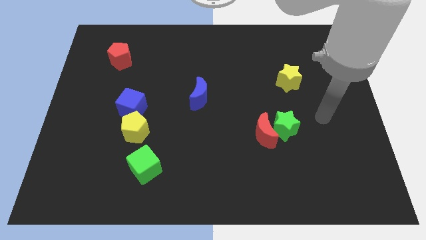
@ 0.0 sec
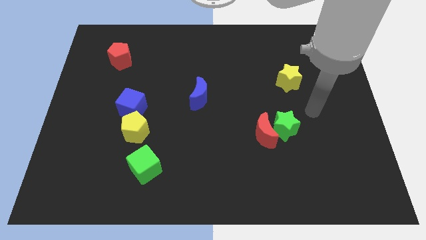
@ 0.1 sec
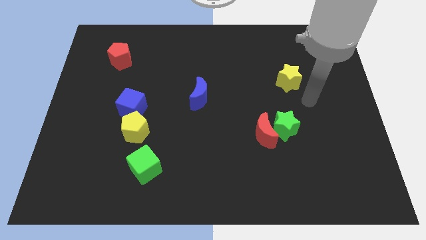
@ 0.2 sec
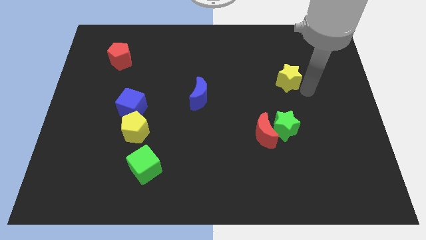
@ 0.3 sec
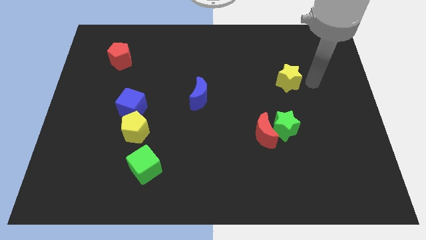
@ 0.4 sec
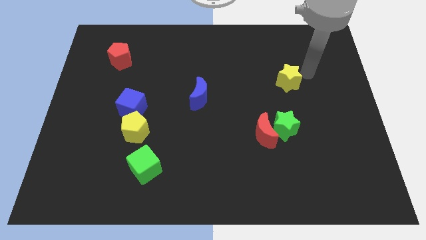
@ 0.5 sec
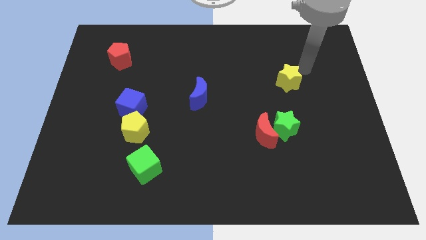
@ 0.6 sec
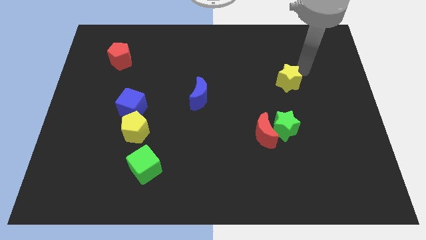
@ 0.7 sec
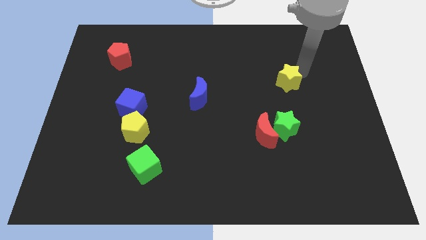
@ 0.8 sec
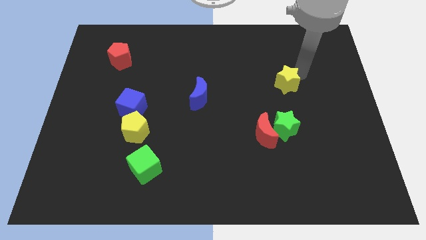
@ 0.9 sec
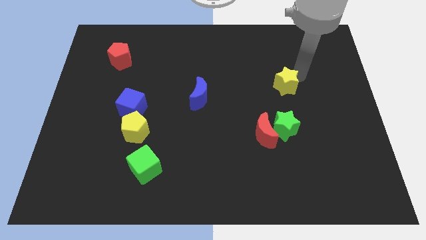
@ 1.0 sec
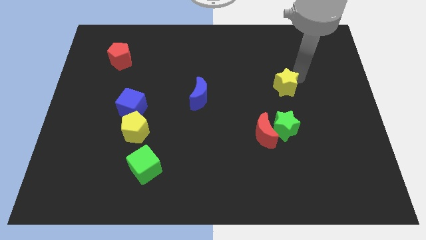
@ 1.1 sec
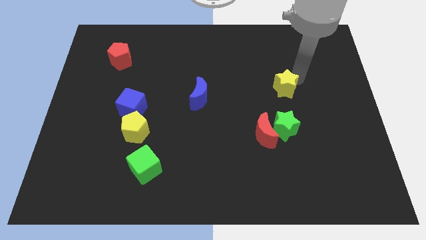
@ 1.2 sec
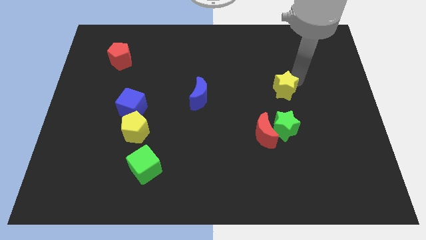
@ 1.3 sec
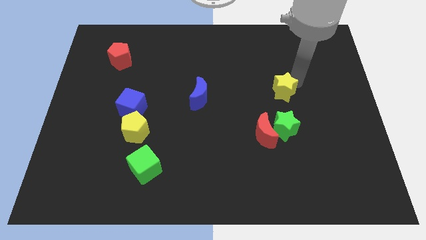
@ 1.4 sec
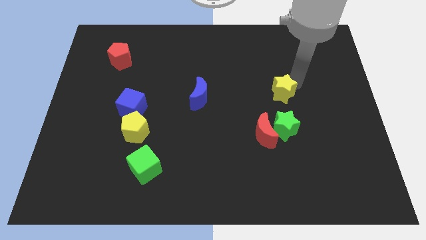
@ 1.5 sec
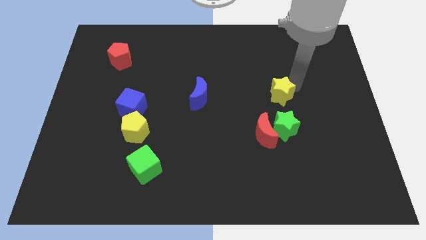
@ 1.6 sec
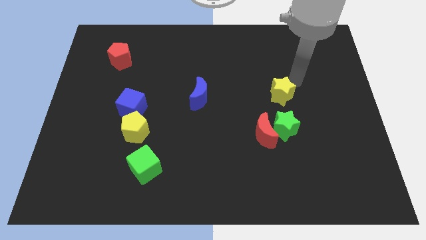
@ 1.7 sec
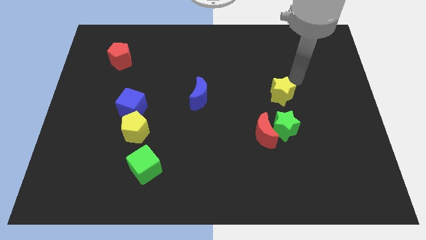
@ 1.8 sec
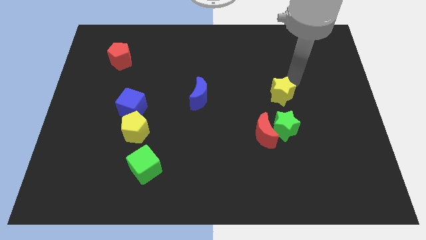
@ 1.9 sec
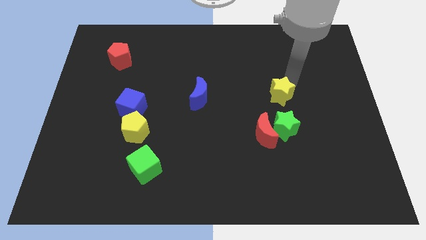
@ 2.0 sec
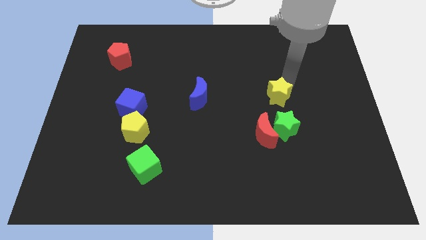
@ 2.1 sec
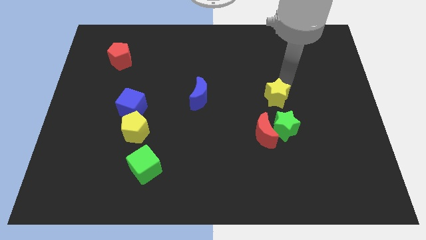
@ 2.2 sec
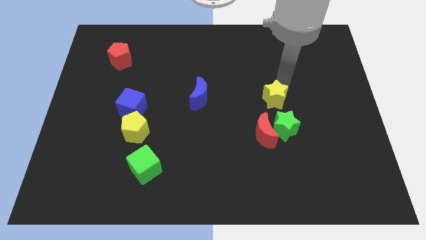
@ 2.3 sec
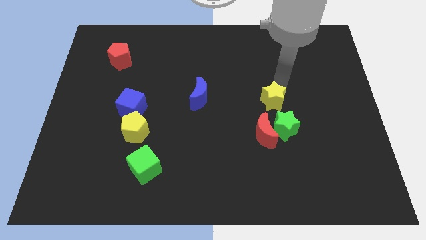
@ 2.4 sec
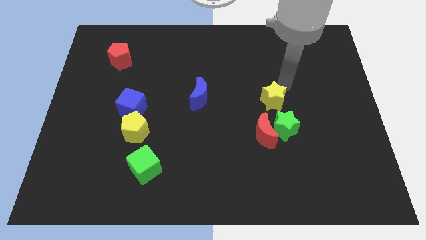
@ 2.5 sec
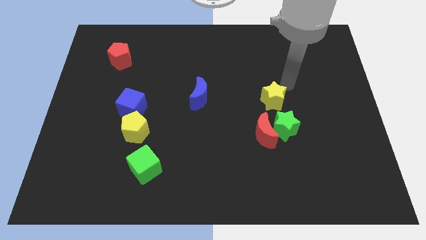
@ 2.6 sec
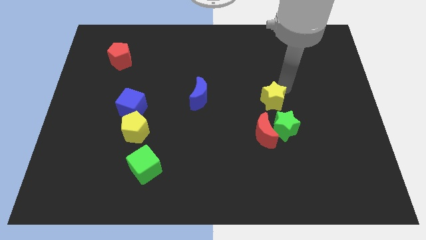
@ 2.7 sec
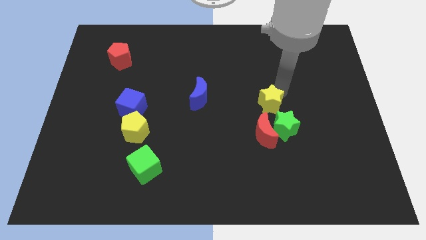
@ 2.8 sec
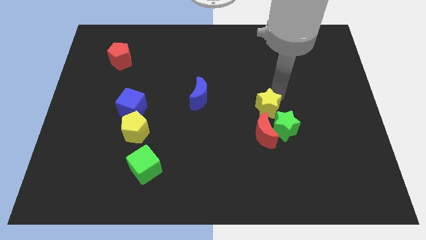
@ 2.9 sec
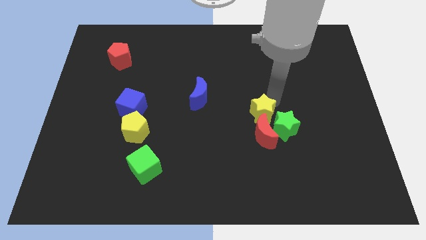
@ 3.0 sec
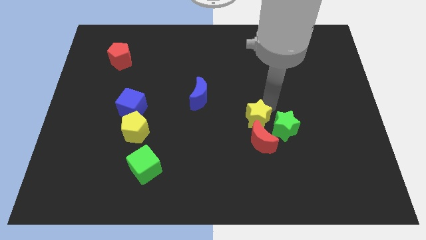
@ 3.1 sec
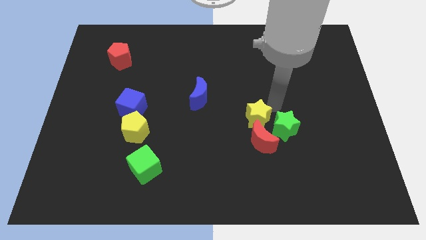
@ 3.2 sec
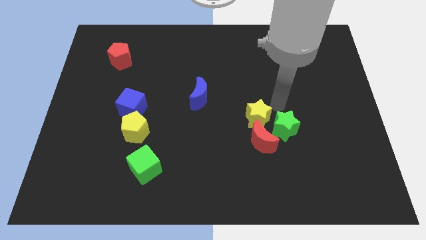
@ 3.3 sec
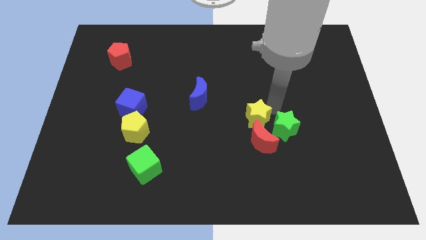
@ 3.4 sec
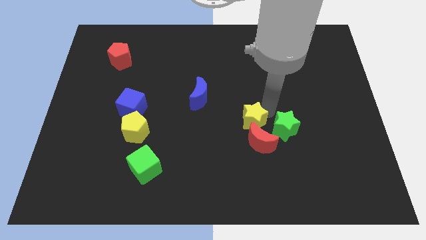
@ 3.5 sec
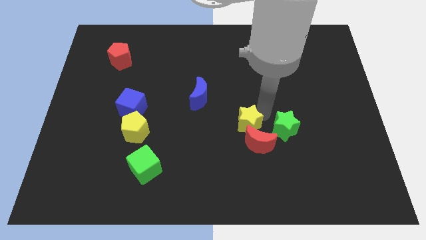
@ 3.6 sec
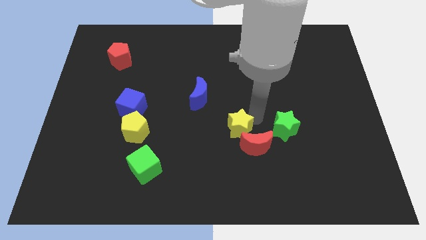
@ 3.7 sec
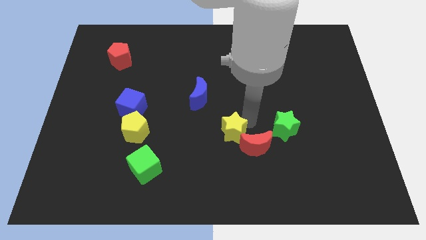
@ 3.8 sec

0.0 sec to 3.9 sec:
move the yellow star downwards and then left

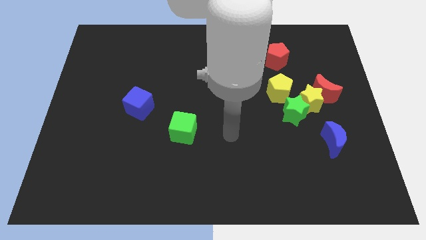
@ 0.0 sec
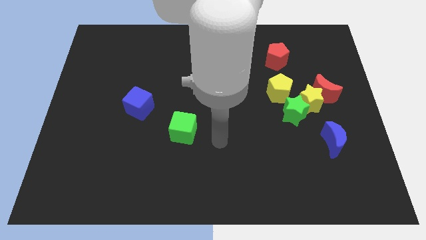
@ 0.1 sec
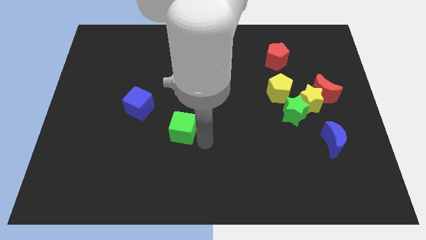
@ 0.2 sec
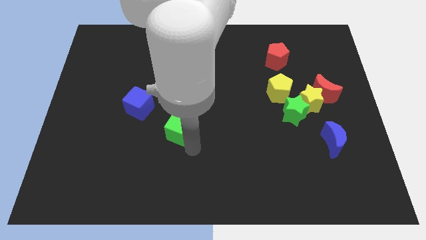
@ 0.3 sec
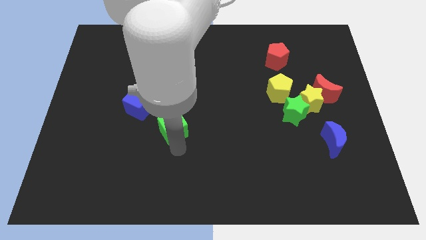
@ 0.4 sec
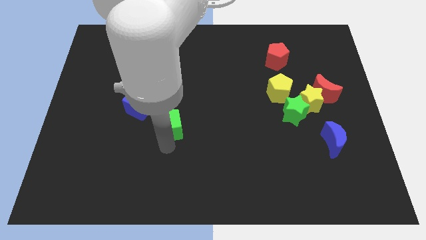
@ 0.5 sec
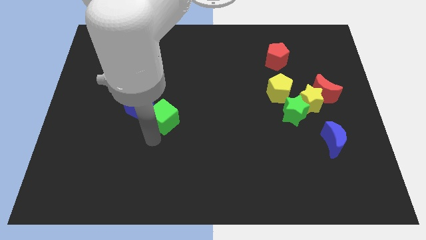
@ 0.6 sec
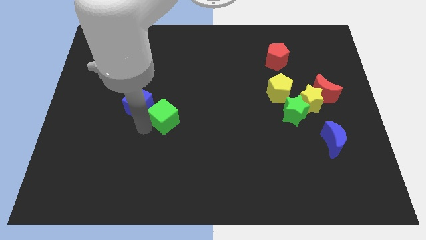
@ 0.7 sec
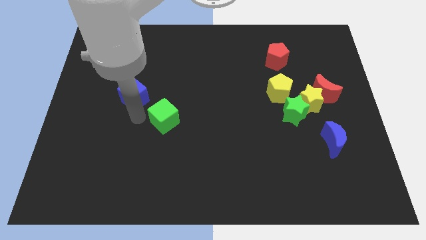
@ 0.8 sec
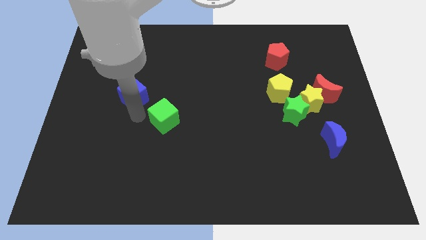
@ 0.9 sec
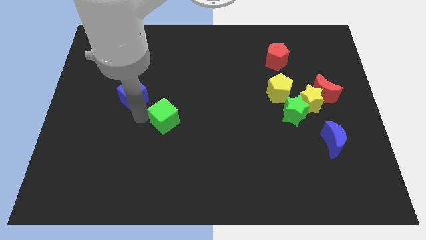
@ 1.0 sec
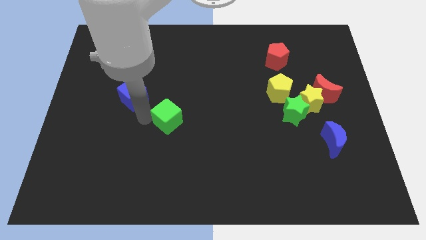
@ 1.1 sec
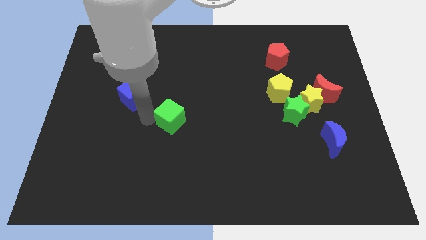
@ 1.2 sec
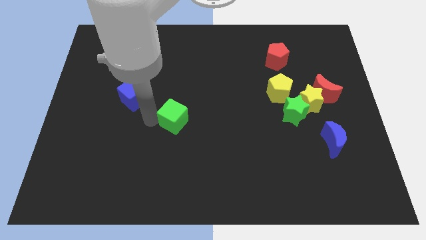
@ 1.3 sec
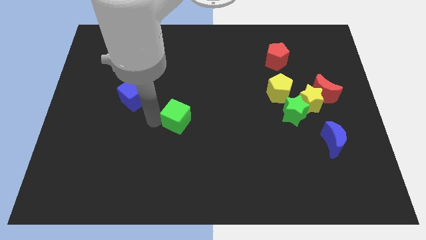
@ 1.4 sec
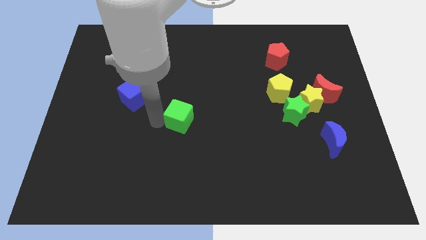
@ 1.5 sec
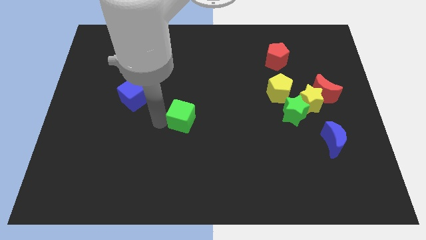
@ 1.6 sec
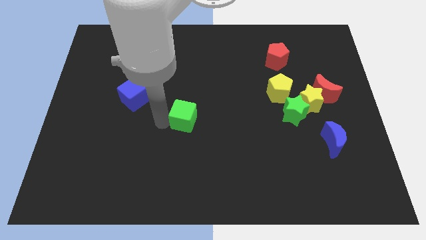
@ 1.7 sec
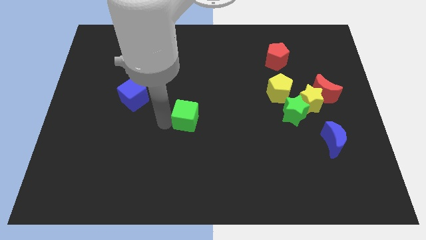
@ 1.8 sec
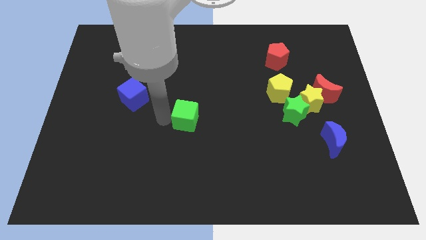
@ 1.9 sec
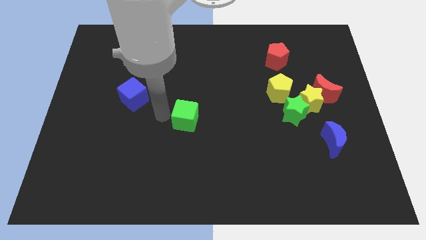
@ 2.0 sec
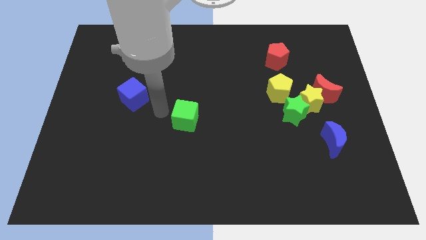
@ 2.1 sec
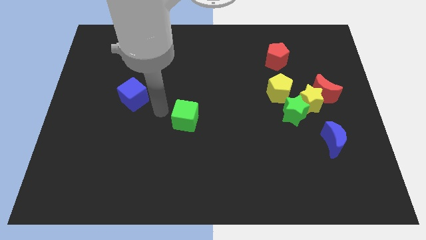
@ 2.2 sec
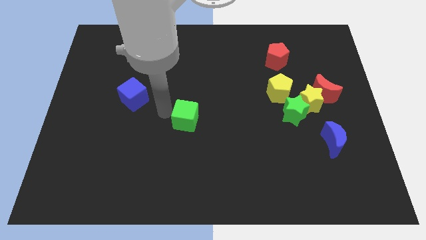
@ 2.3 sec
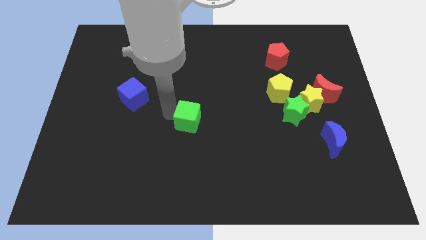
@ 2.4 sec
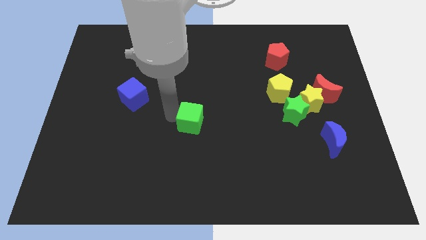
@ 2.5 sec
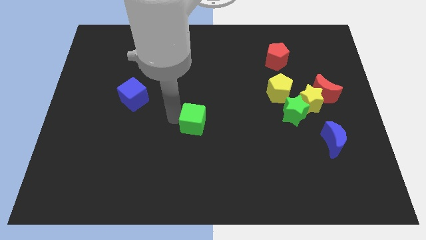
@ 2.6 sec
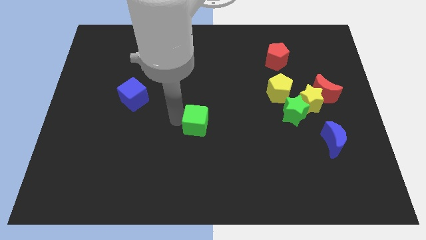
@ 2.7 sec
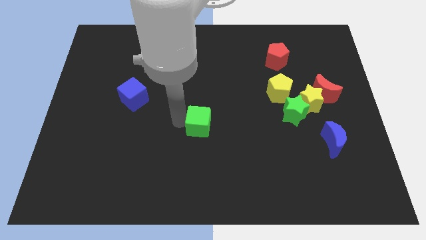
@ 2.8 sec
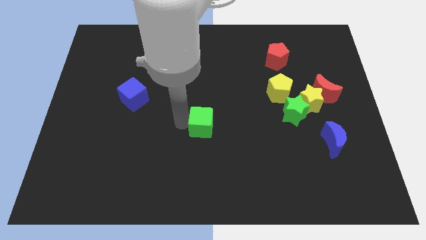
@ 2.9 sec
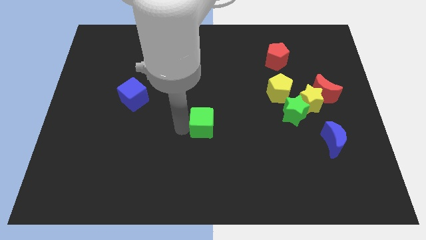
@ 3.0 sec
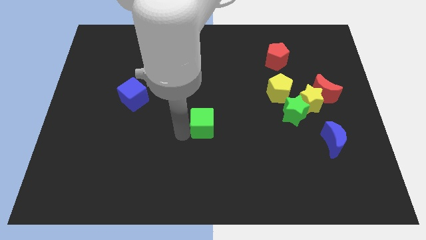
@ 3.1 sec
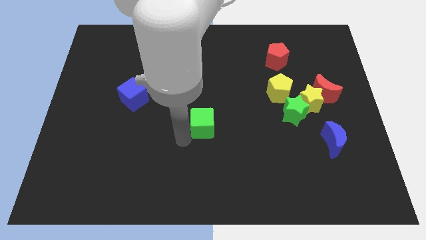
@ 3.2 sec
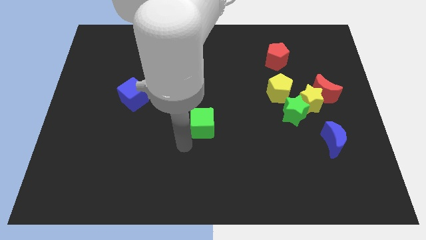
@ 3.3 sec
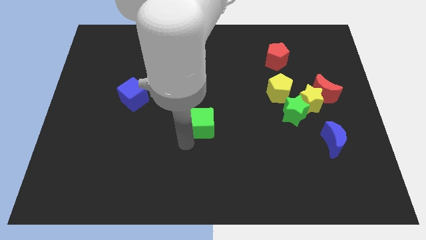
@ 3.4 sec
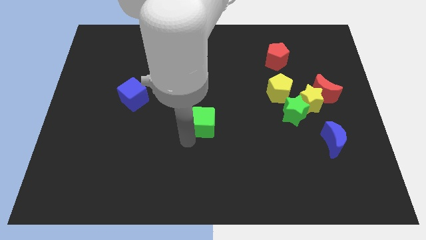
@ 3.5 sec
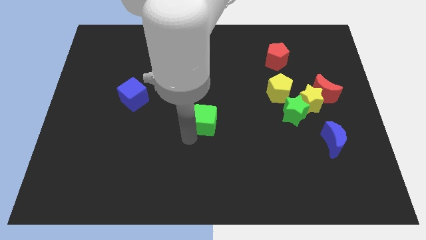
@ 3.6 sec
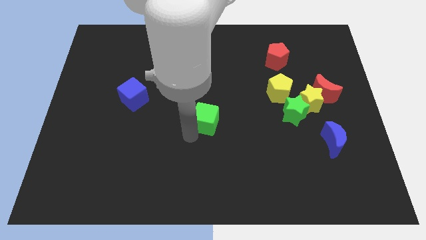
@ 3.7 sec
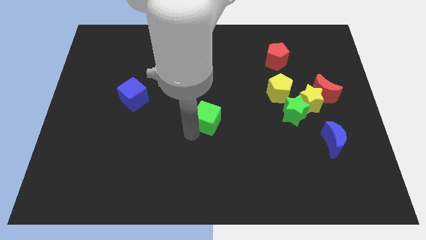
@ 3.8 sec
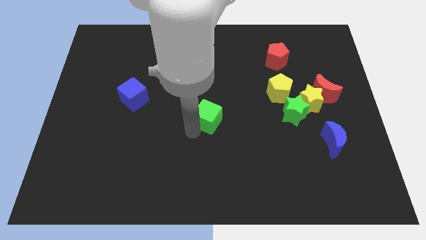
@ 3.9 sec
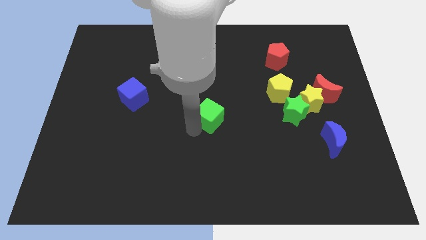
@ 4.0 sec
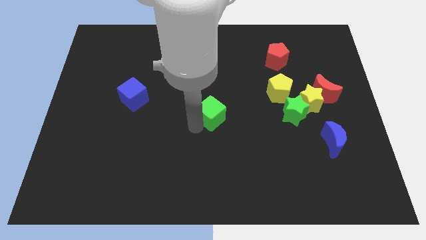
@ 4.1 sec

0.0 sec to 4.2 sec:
slightly slide the green cube diagonally up and to the right
